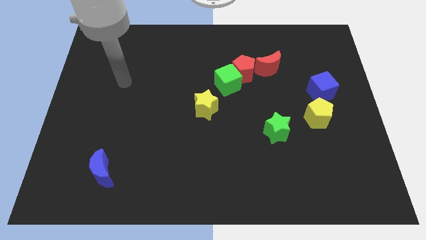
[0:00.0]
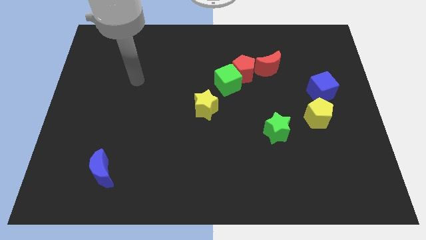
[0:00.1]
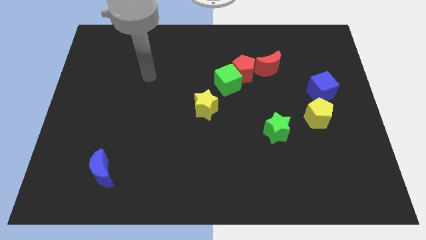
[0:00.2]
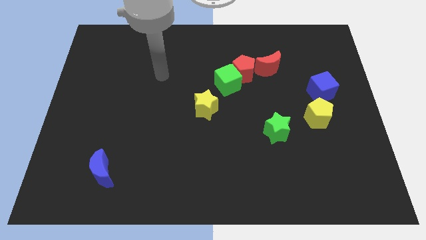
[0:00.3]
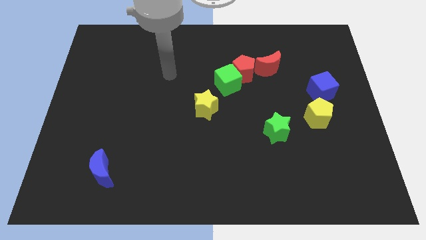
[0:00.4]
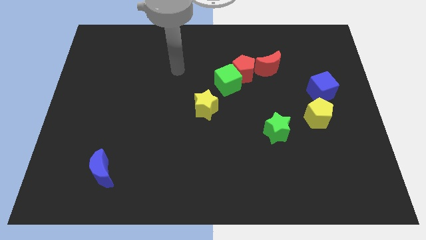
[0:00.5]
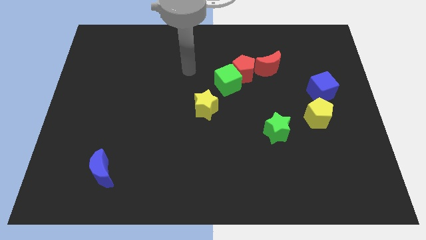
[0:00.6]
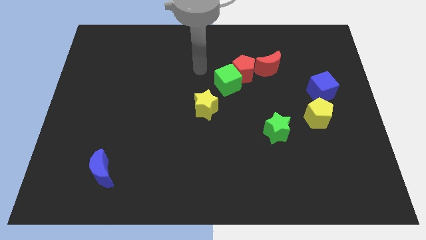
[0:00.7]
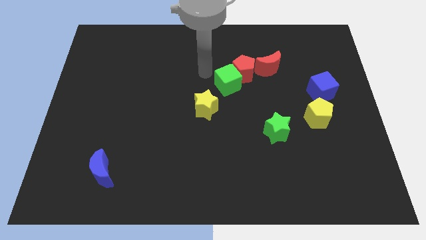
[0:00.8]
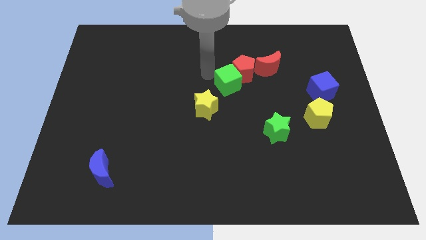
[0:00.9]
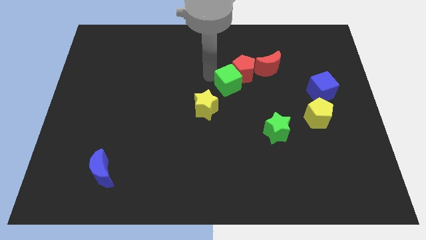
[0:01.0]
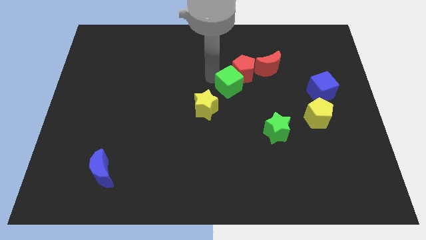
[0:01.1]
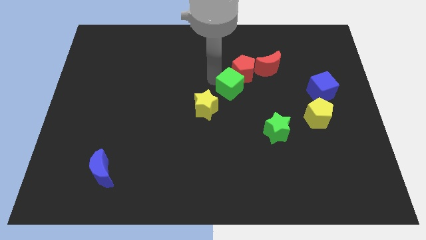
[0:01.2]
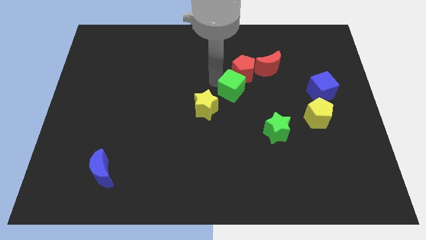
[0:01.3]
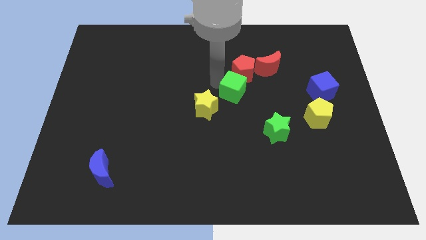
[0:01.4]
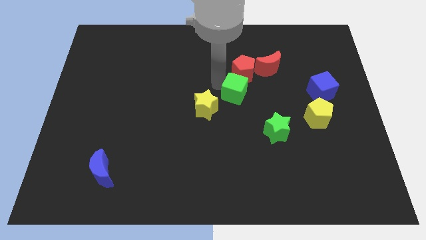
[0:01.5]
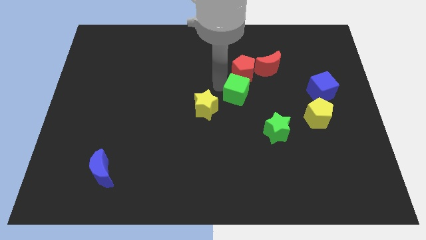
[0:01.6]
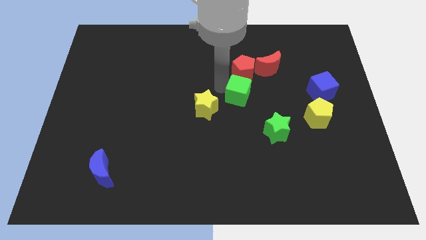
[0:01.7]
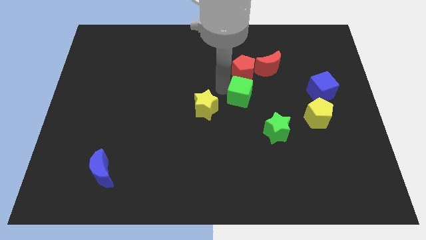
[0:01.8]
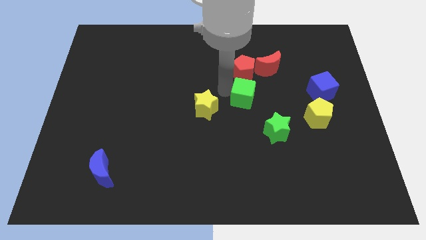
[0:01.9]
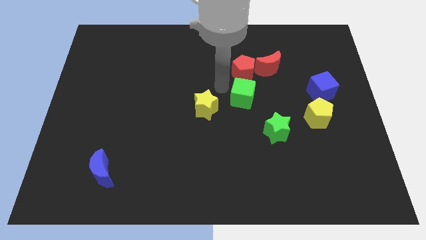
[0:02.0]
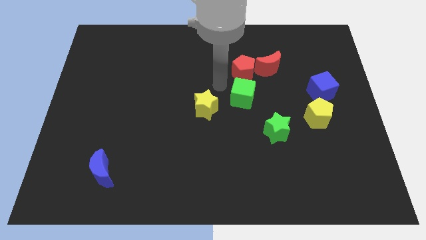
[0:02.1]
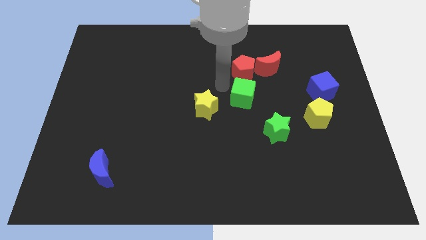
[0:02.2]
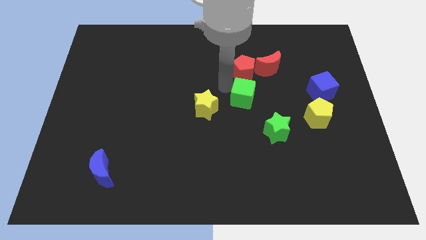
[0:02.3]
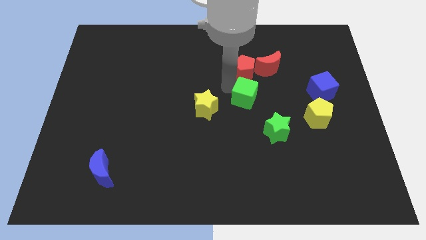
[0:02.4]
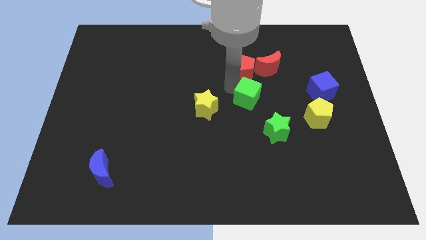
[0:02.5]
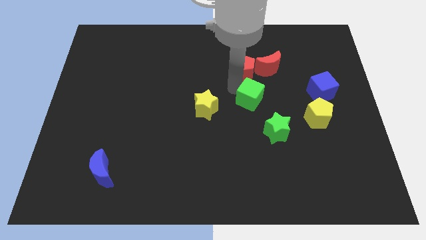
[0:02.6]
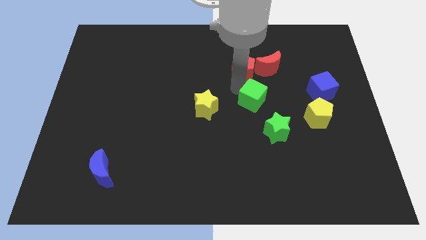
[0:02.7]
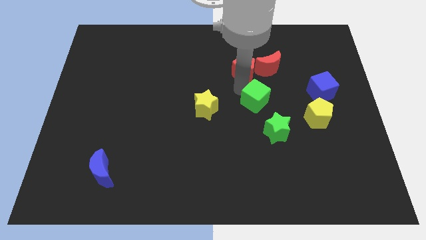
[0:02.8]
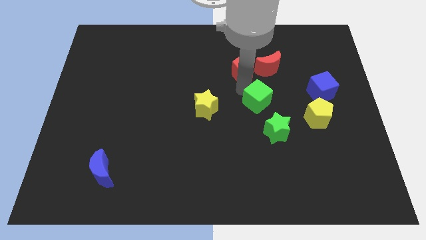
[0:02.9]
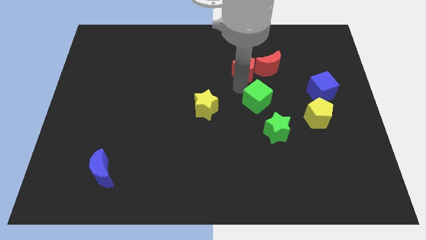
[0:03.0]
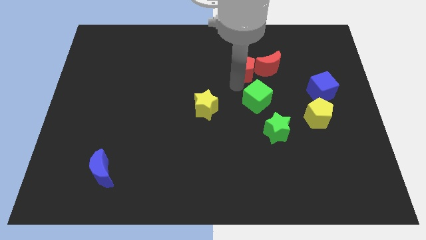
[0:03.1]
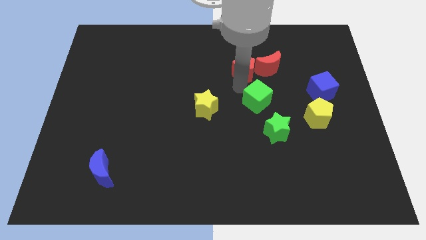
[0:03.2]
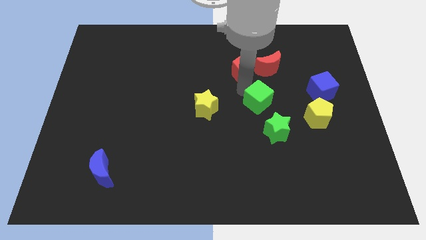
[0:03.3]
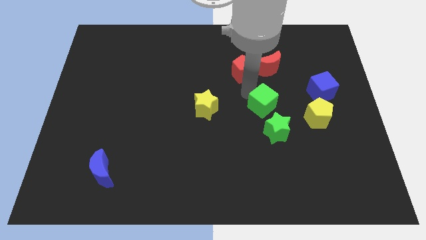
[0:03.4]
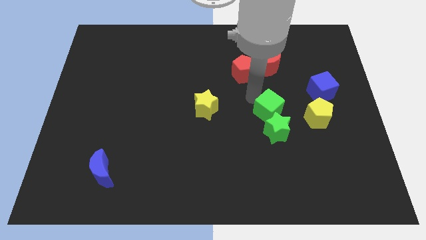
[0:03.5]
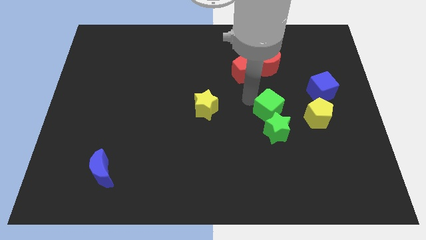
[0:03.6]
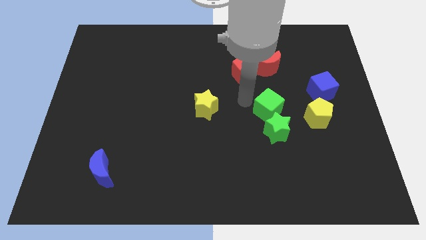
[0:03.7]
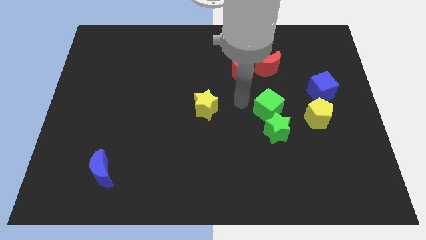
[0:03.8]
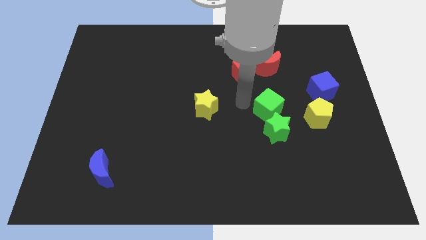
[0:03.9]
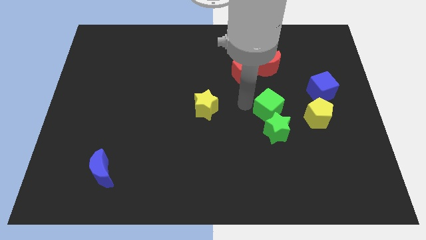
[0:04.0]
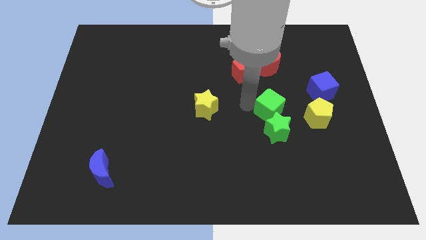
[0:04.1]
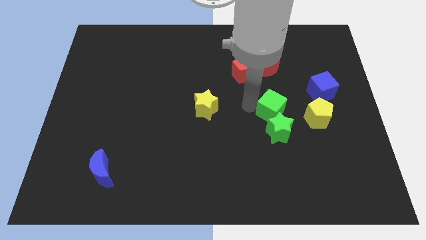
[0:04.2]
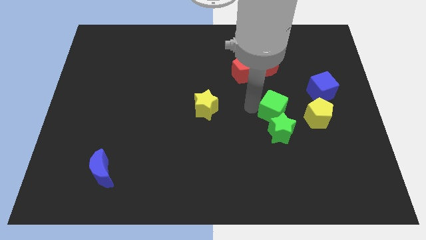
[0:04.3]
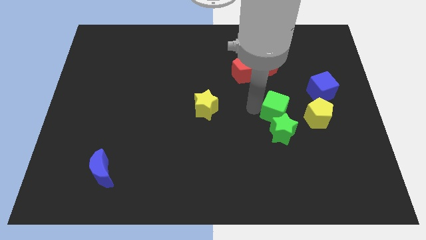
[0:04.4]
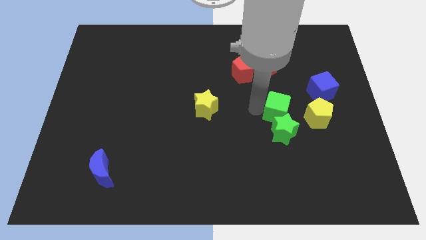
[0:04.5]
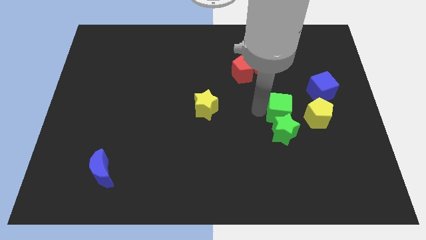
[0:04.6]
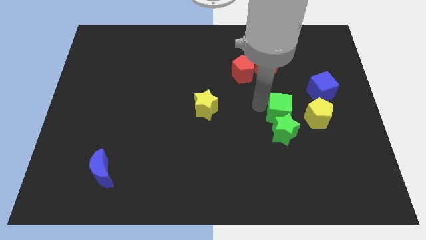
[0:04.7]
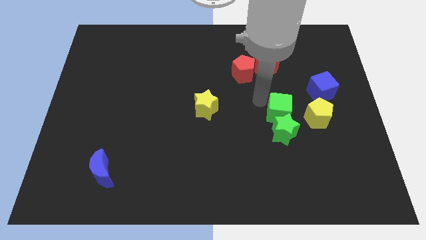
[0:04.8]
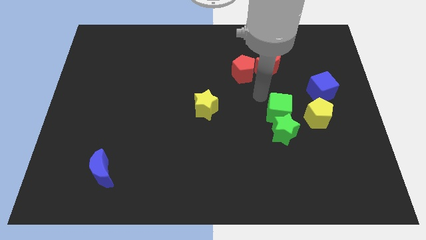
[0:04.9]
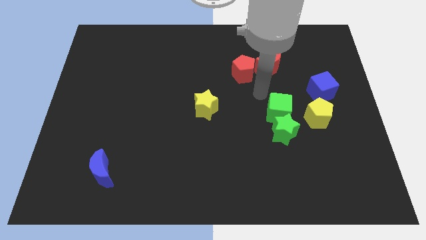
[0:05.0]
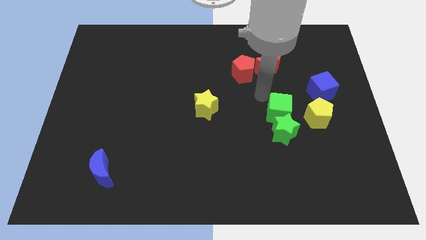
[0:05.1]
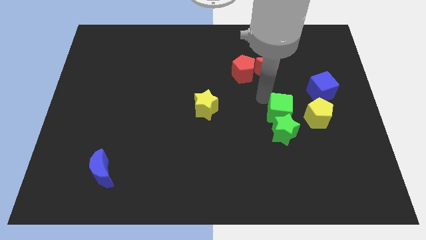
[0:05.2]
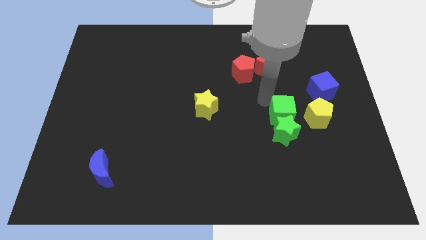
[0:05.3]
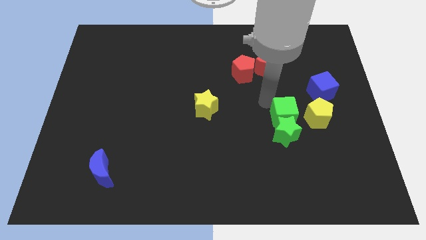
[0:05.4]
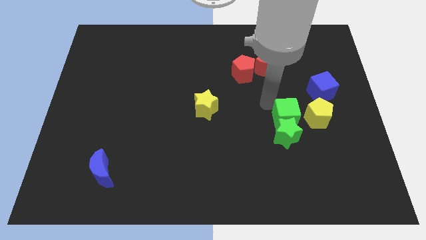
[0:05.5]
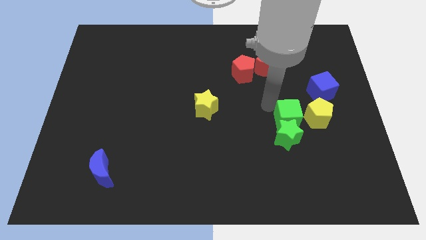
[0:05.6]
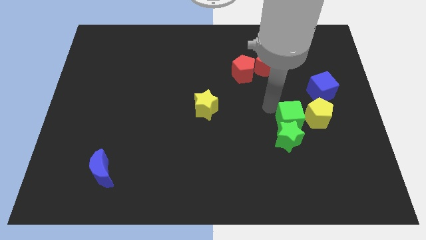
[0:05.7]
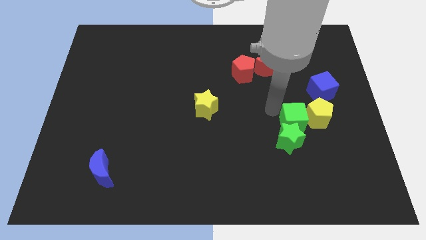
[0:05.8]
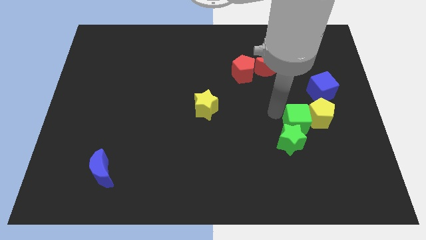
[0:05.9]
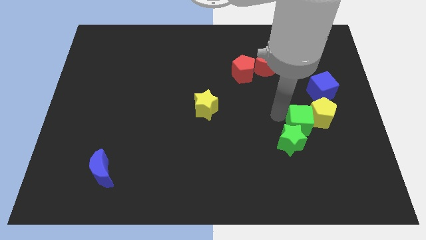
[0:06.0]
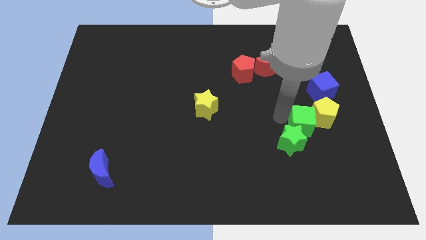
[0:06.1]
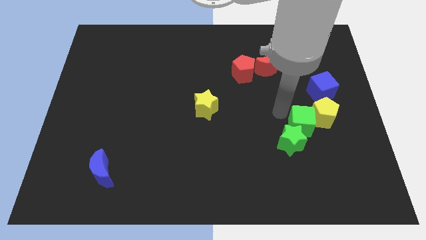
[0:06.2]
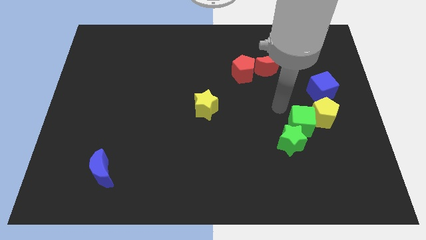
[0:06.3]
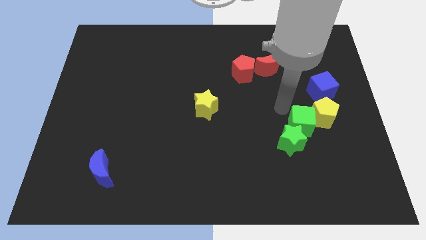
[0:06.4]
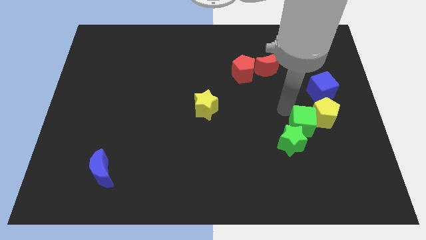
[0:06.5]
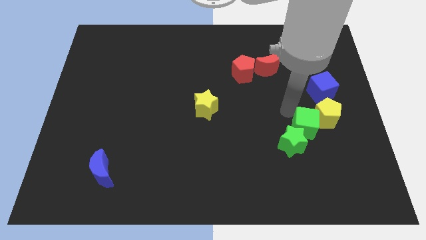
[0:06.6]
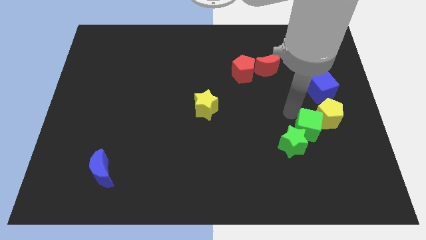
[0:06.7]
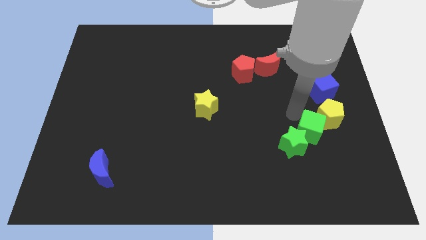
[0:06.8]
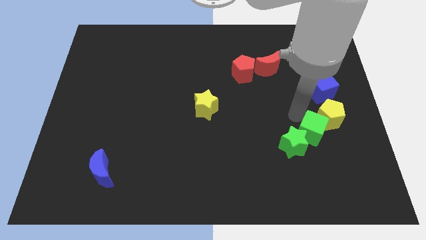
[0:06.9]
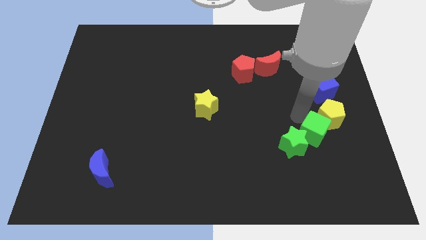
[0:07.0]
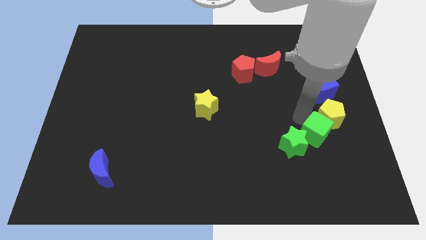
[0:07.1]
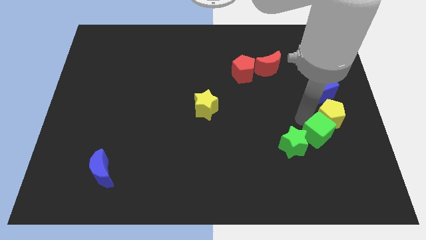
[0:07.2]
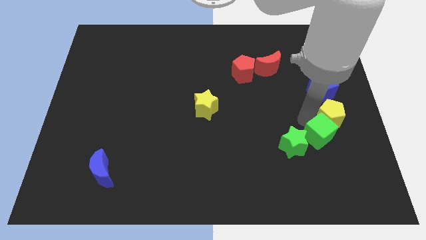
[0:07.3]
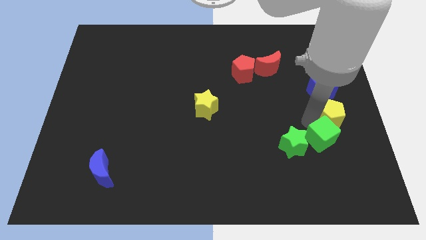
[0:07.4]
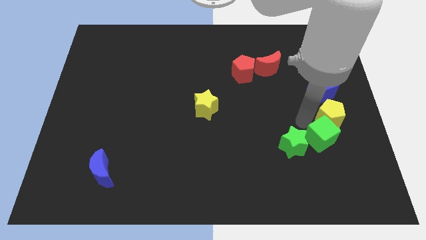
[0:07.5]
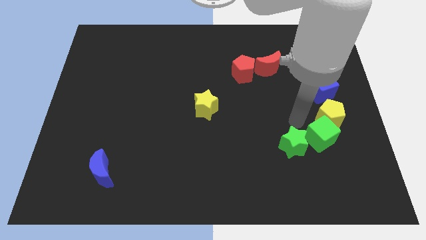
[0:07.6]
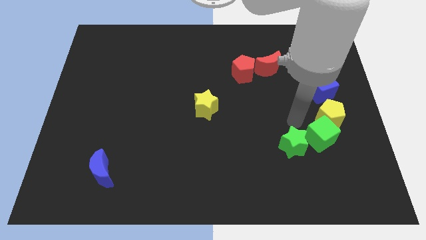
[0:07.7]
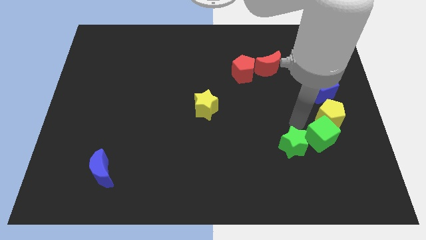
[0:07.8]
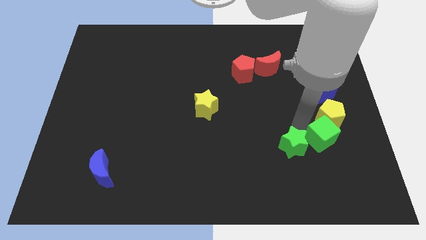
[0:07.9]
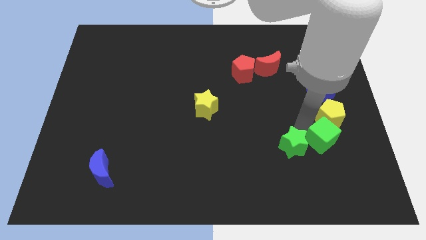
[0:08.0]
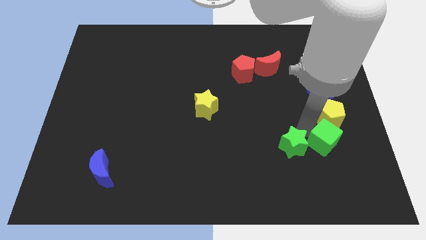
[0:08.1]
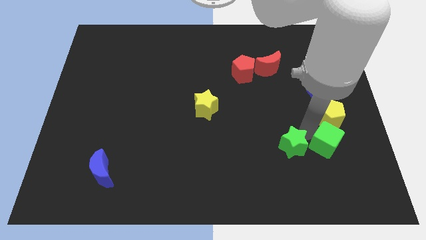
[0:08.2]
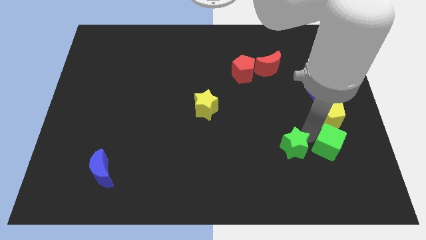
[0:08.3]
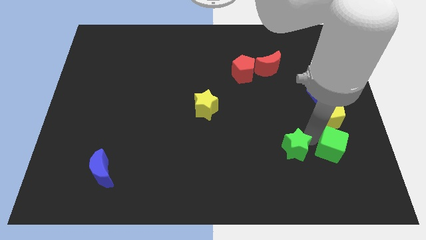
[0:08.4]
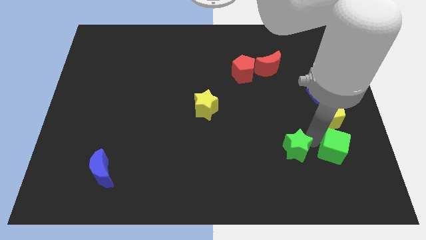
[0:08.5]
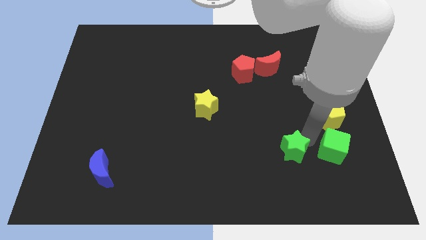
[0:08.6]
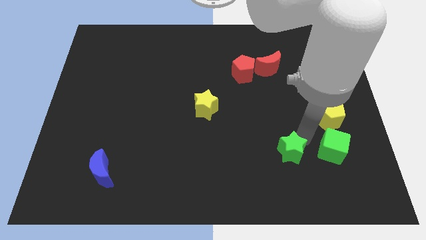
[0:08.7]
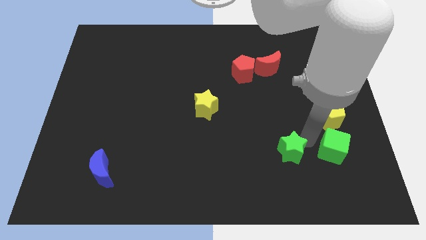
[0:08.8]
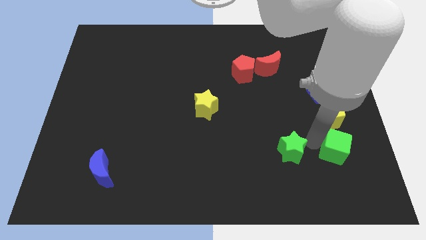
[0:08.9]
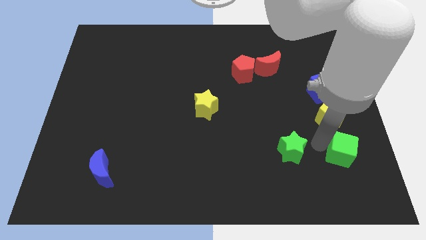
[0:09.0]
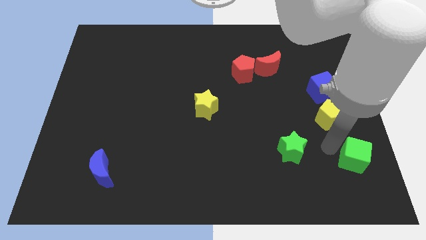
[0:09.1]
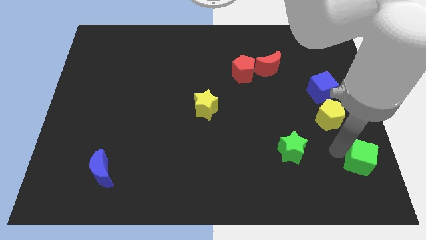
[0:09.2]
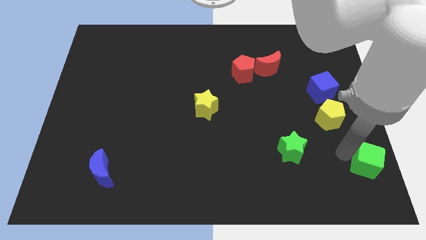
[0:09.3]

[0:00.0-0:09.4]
push the green cube to the bottom right of the board
